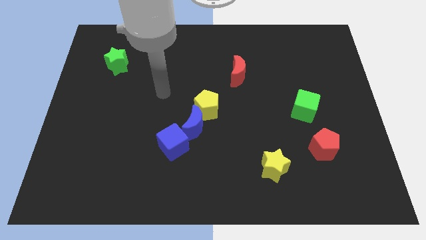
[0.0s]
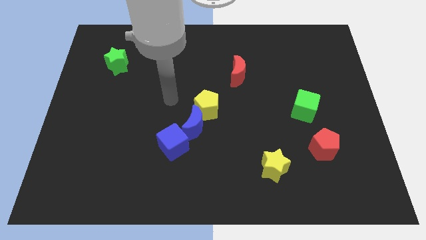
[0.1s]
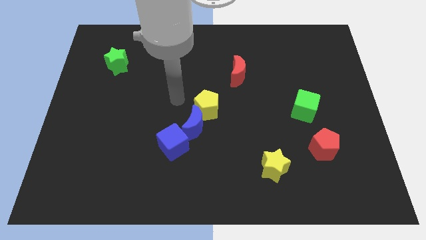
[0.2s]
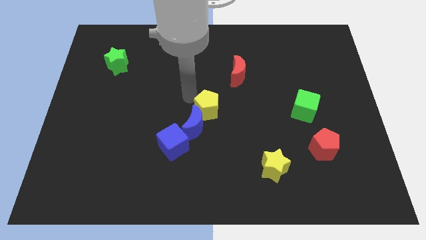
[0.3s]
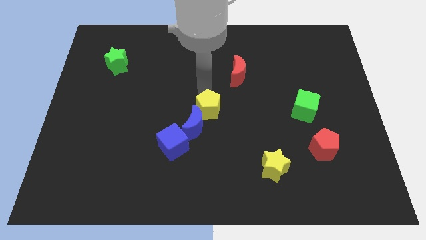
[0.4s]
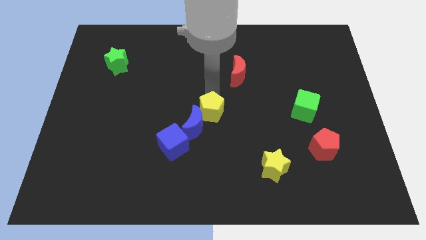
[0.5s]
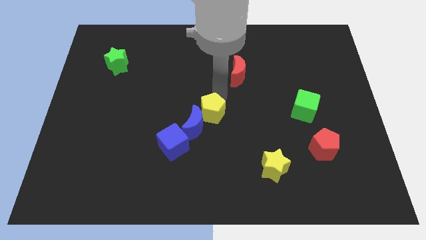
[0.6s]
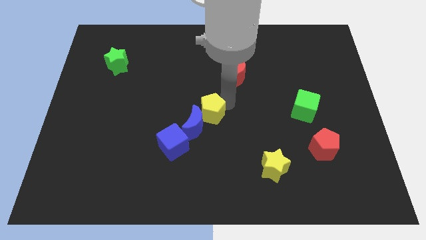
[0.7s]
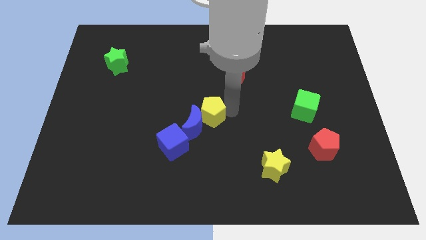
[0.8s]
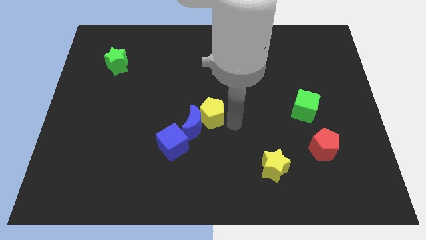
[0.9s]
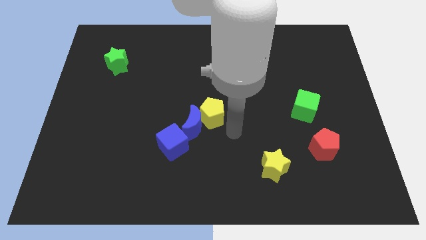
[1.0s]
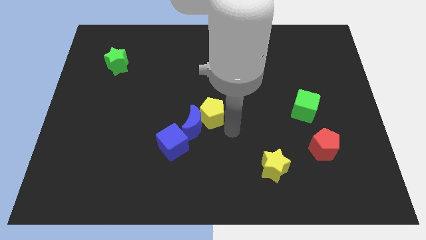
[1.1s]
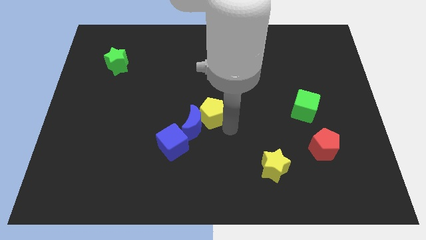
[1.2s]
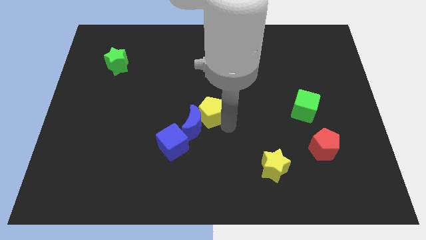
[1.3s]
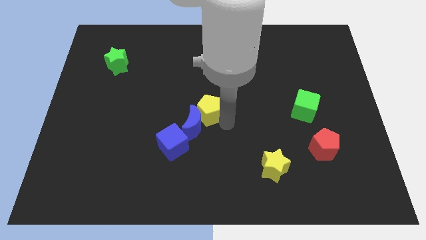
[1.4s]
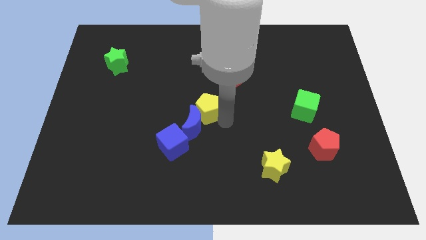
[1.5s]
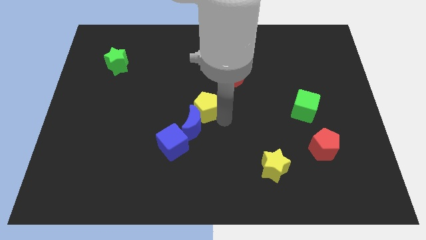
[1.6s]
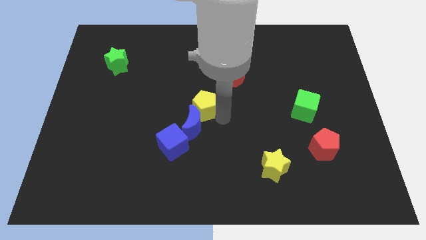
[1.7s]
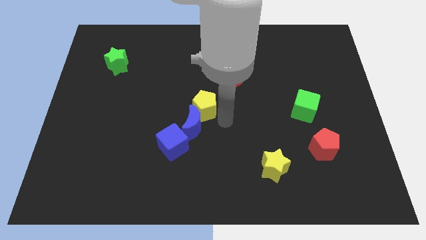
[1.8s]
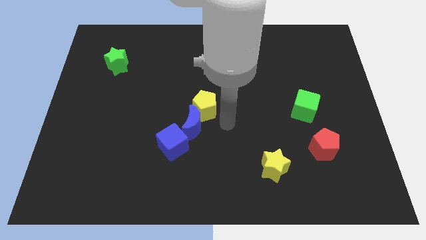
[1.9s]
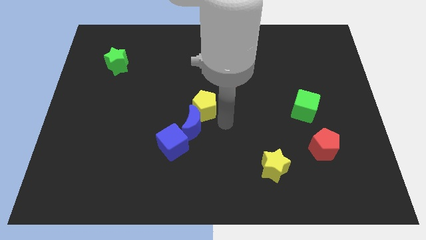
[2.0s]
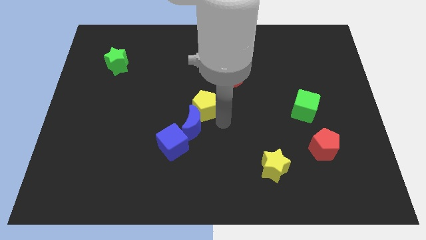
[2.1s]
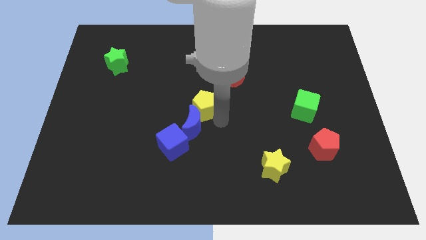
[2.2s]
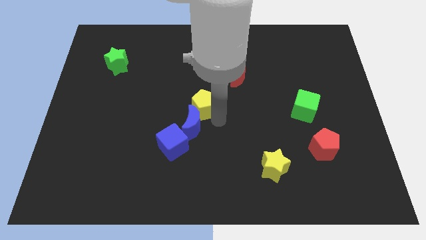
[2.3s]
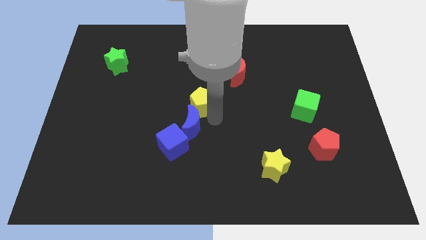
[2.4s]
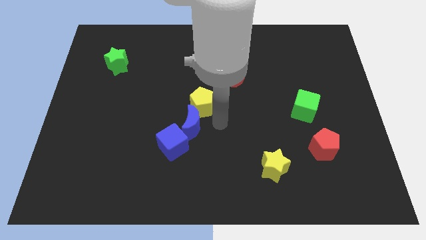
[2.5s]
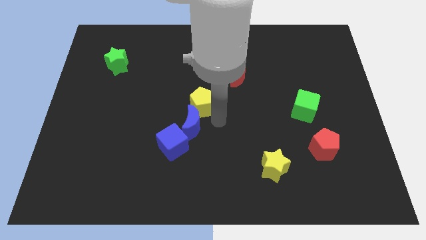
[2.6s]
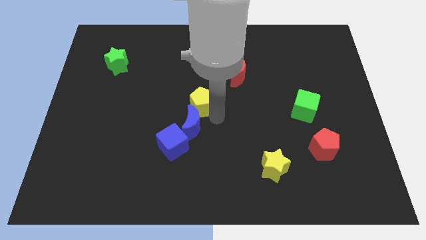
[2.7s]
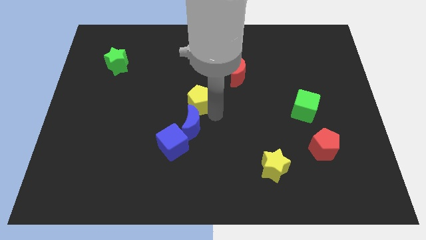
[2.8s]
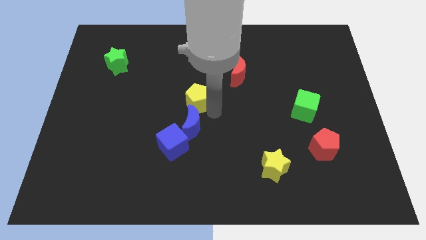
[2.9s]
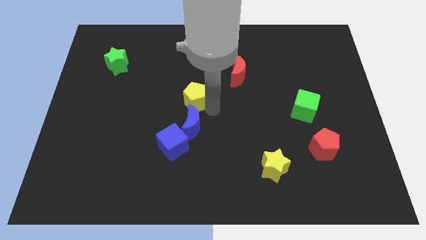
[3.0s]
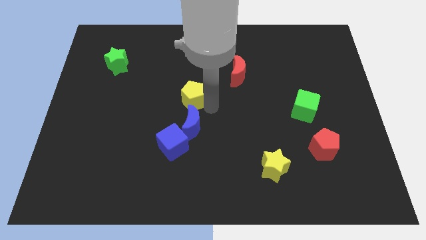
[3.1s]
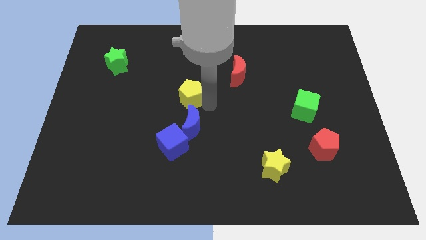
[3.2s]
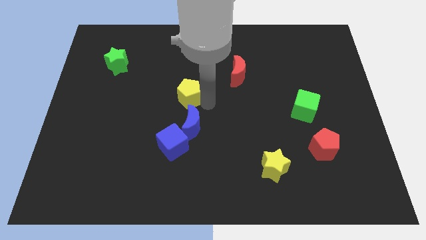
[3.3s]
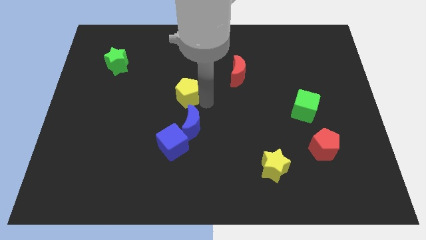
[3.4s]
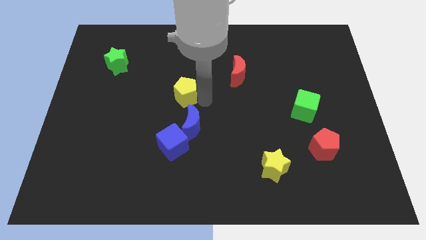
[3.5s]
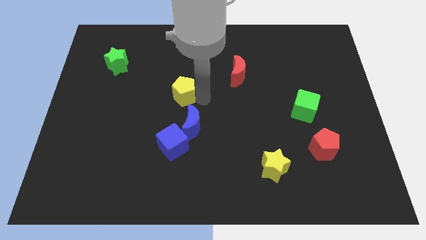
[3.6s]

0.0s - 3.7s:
slightly slide the yellow pentagon upwards and to the left

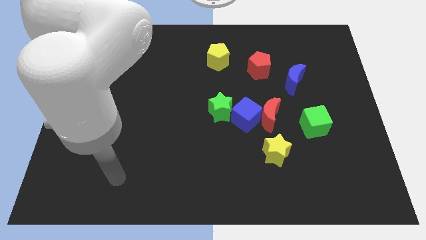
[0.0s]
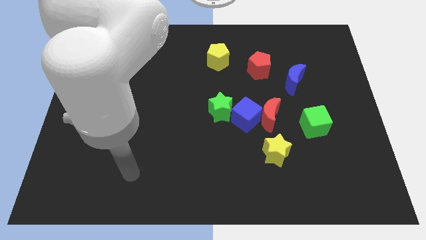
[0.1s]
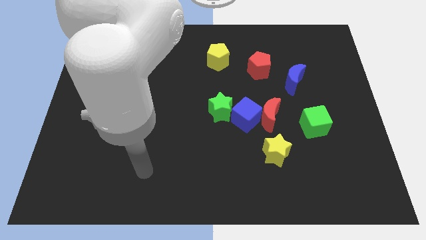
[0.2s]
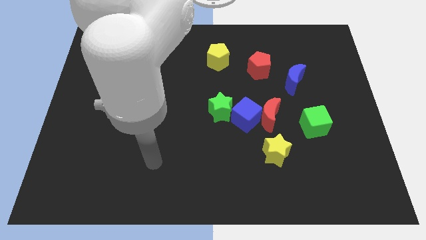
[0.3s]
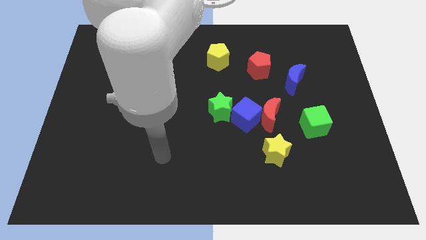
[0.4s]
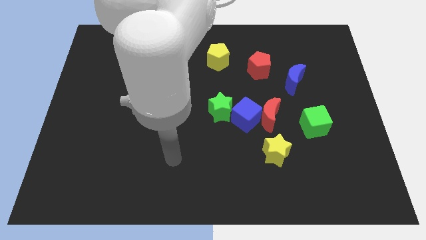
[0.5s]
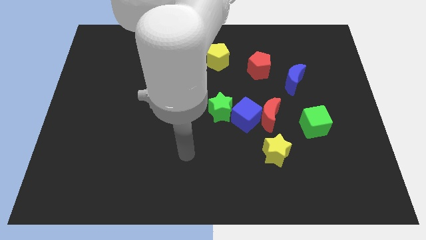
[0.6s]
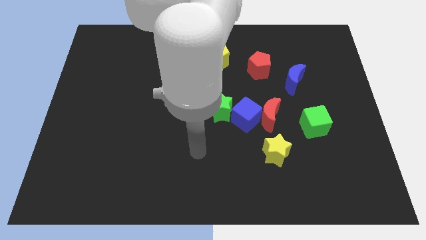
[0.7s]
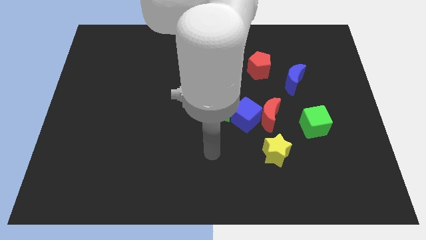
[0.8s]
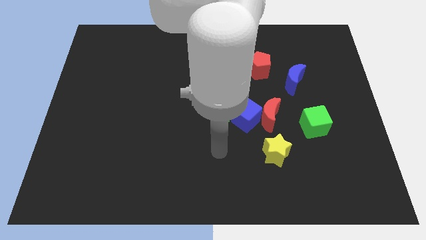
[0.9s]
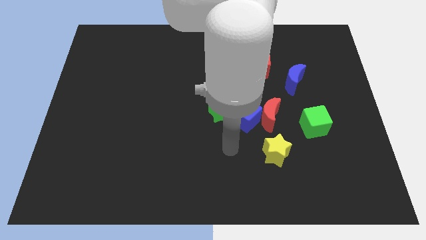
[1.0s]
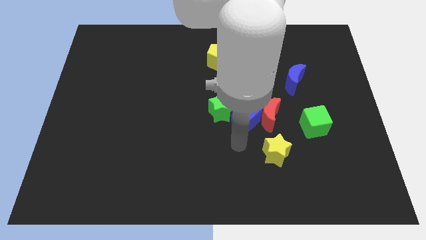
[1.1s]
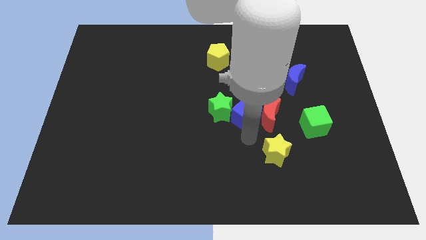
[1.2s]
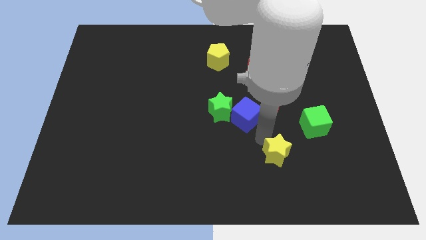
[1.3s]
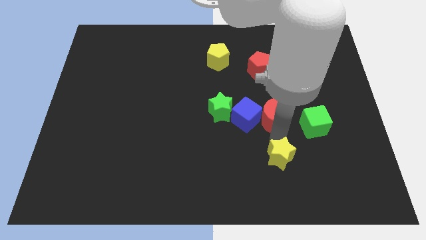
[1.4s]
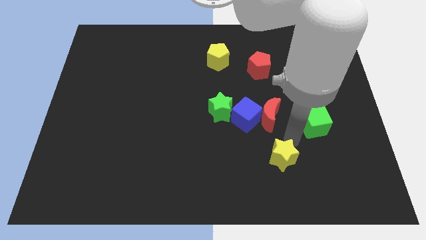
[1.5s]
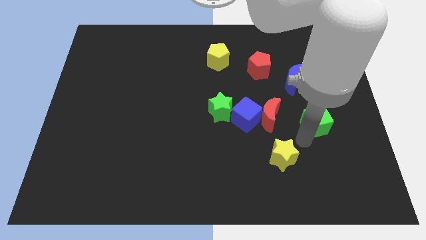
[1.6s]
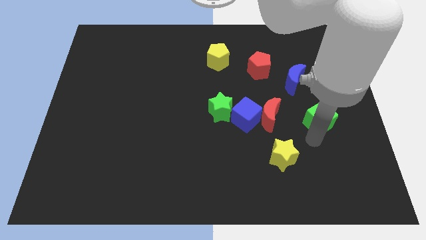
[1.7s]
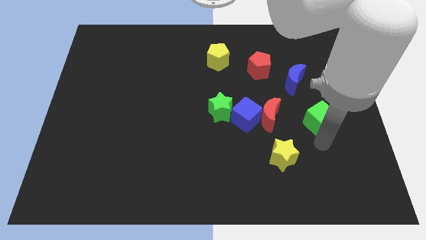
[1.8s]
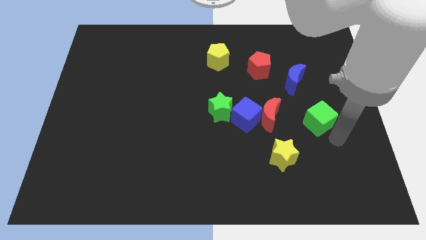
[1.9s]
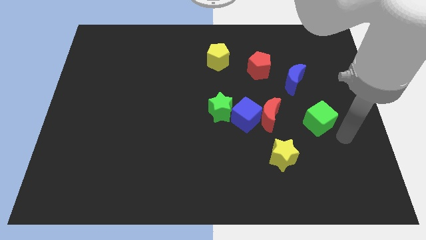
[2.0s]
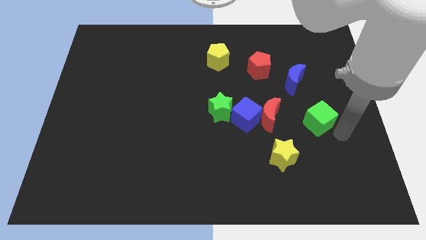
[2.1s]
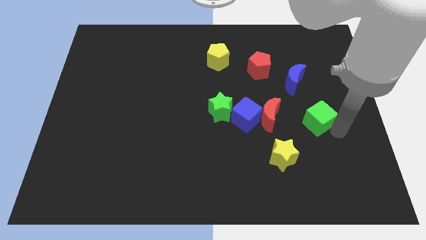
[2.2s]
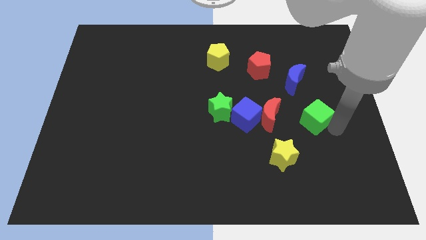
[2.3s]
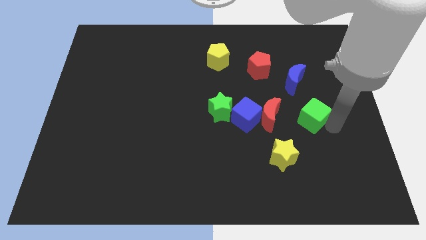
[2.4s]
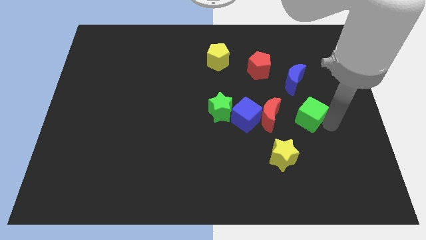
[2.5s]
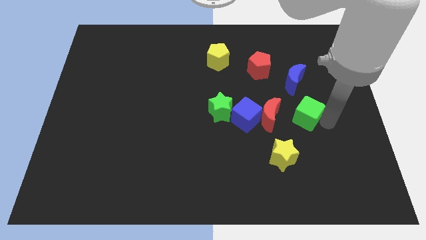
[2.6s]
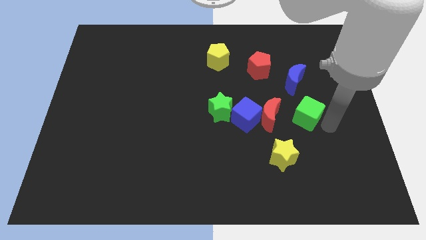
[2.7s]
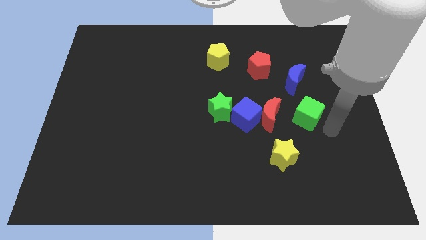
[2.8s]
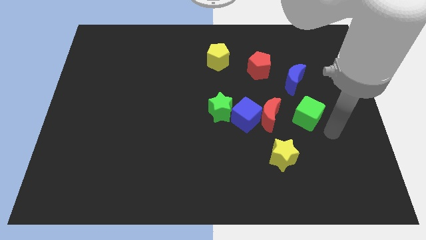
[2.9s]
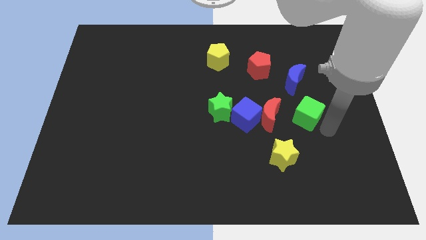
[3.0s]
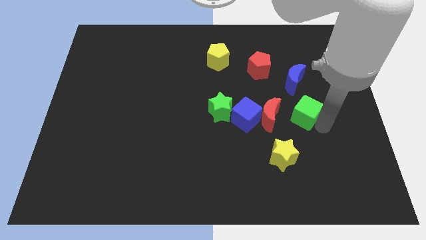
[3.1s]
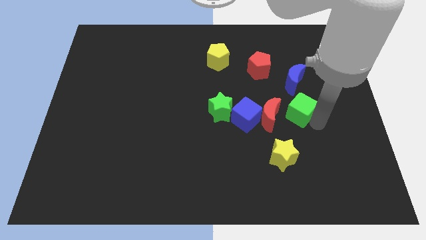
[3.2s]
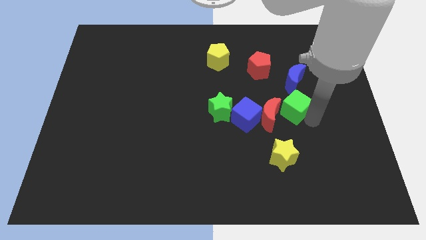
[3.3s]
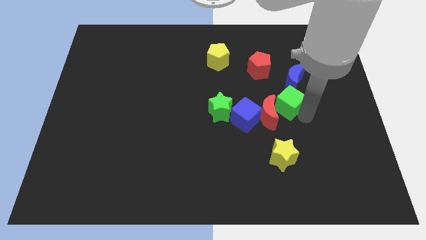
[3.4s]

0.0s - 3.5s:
move the green cube slightly diagonally up and left

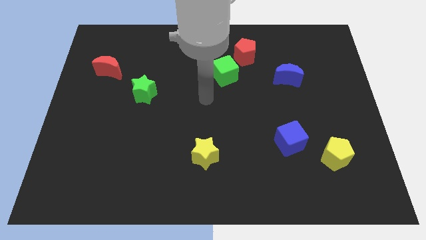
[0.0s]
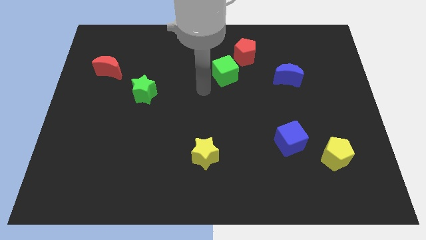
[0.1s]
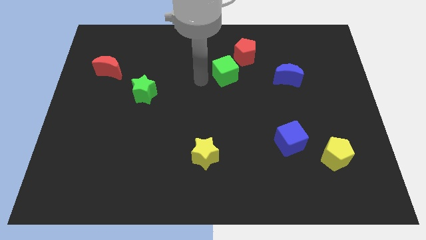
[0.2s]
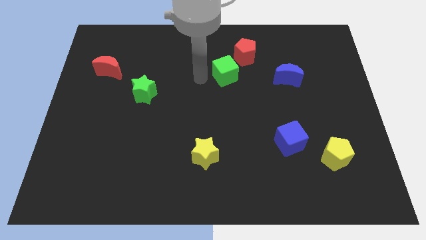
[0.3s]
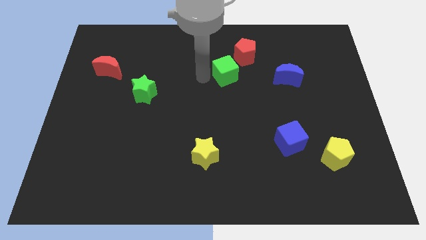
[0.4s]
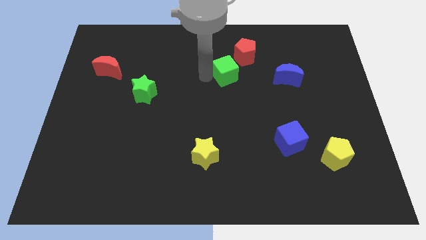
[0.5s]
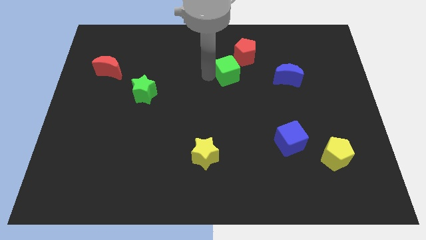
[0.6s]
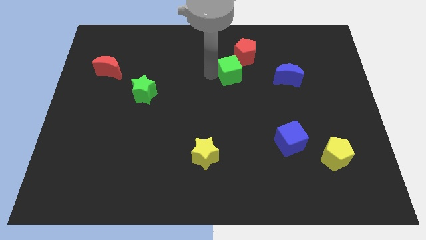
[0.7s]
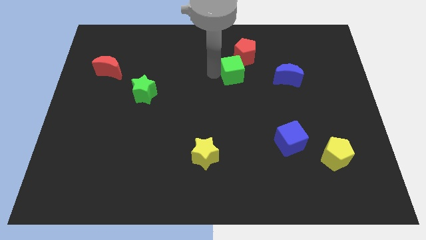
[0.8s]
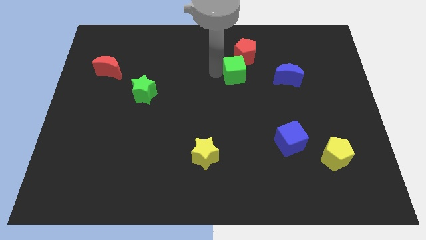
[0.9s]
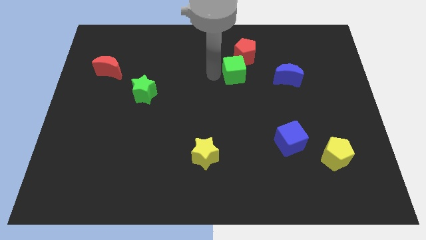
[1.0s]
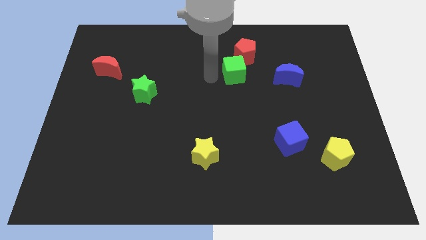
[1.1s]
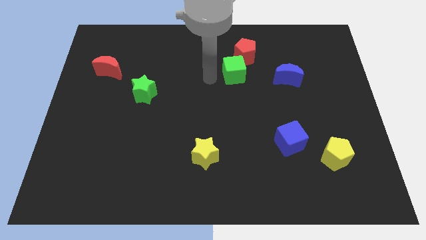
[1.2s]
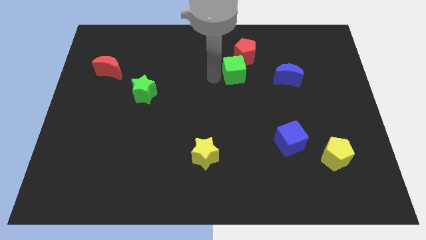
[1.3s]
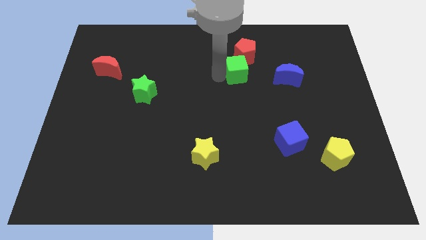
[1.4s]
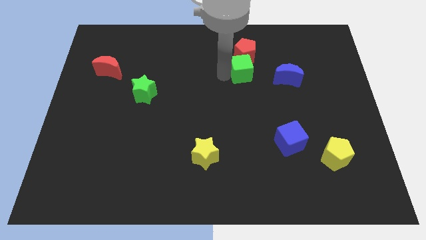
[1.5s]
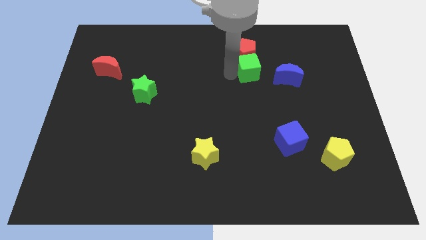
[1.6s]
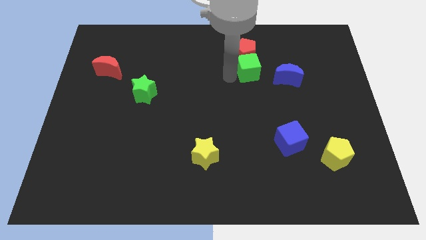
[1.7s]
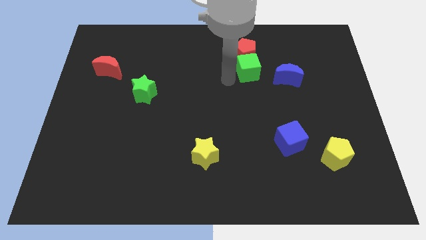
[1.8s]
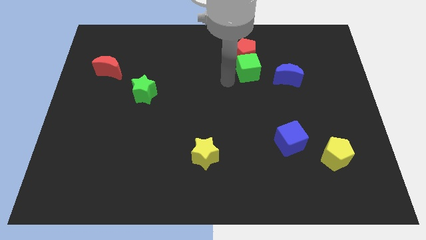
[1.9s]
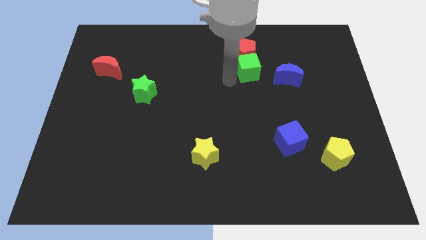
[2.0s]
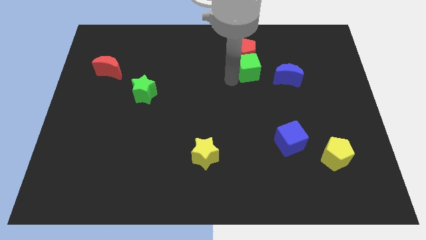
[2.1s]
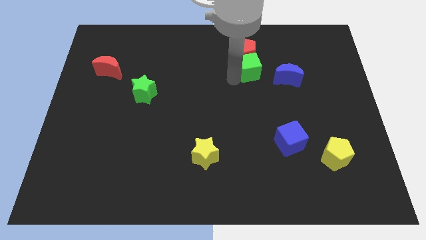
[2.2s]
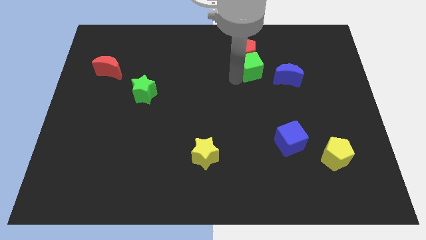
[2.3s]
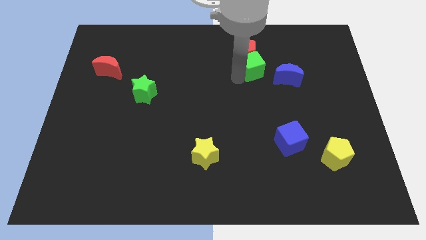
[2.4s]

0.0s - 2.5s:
move the green cube to the right somewhat
